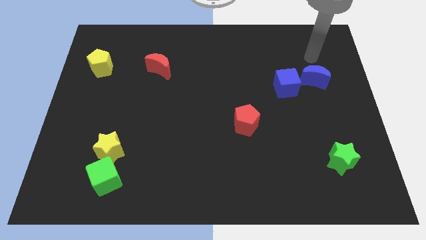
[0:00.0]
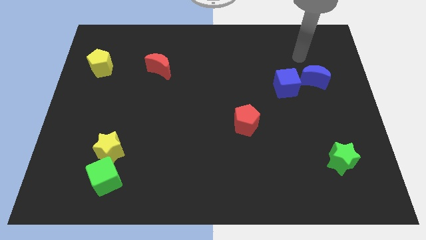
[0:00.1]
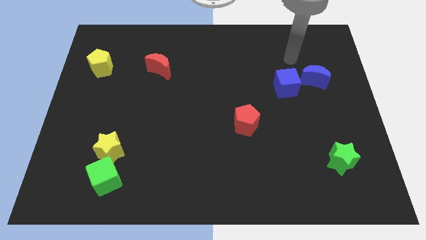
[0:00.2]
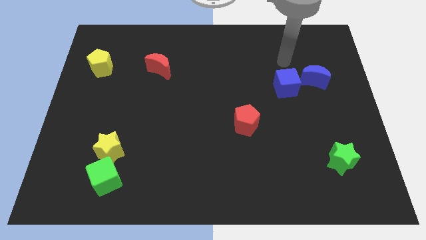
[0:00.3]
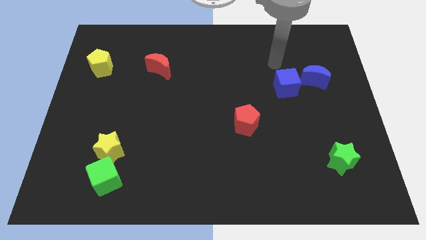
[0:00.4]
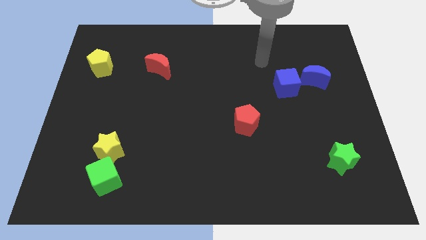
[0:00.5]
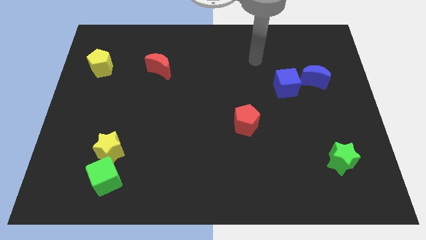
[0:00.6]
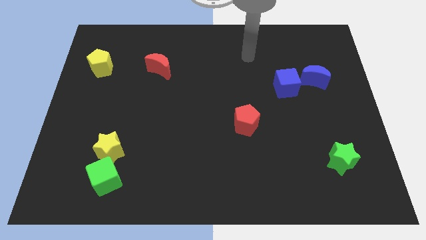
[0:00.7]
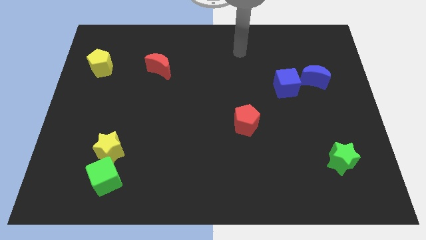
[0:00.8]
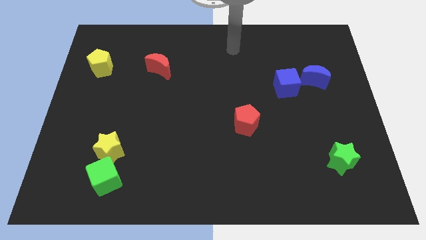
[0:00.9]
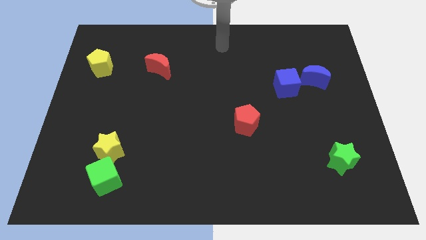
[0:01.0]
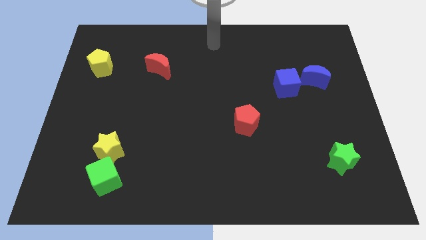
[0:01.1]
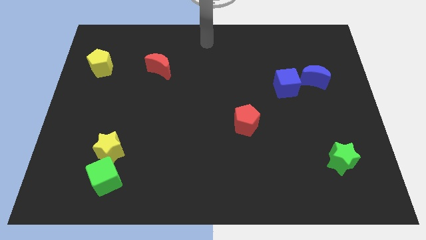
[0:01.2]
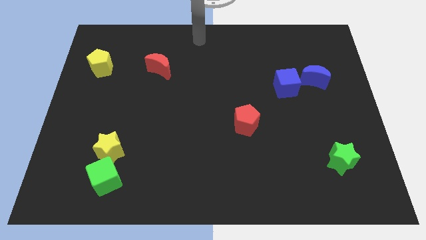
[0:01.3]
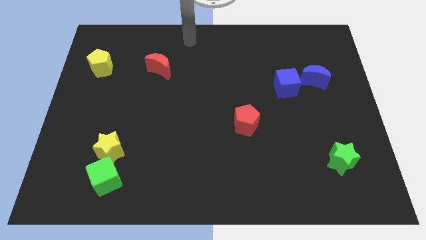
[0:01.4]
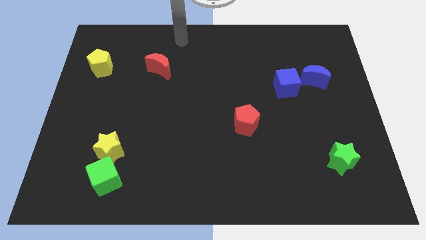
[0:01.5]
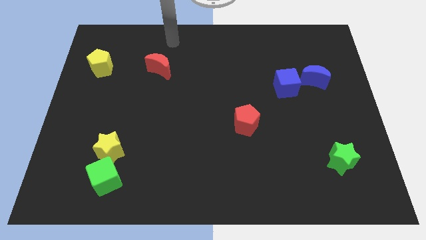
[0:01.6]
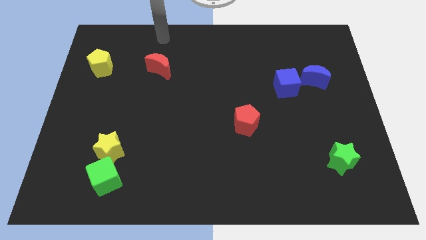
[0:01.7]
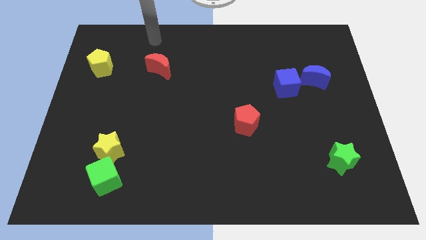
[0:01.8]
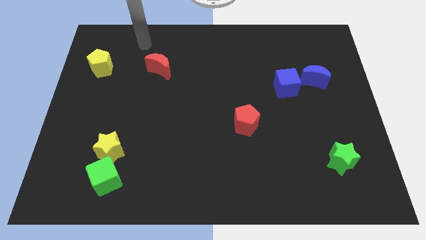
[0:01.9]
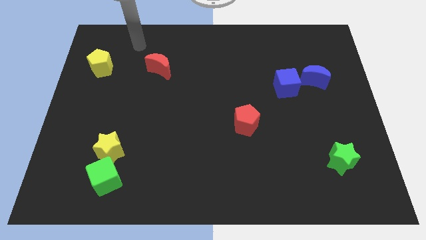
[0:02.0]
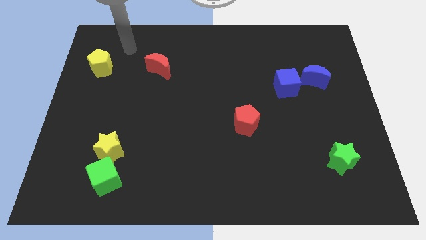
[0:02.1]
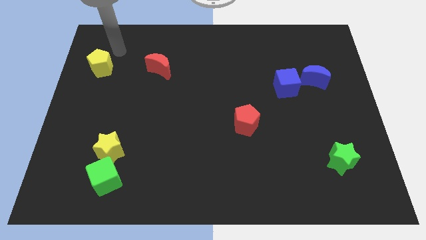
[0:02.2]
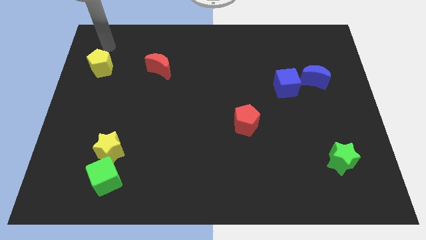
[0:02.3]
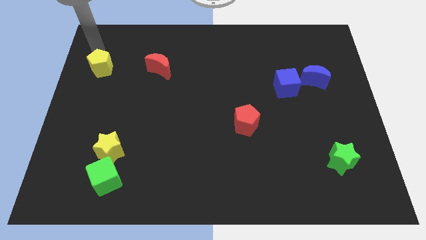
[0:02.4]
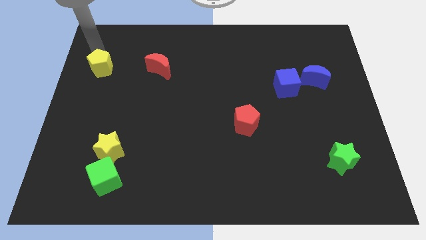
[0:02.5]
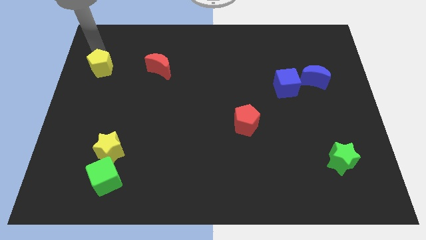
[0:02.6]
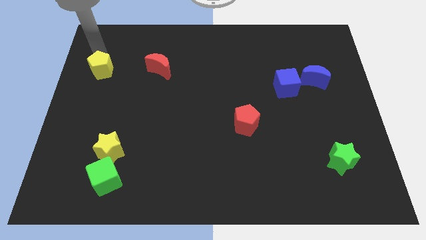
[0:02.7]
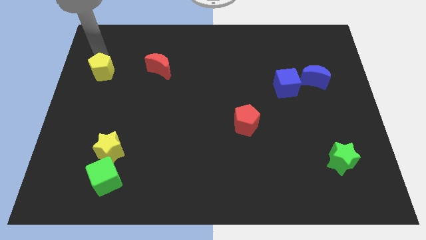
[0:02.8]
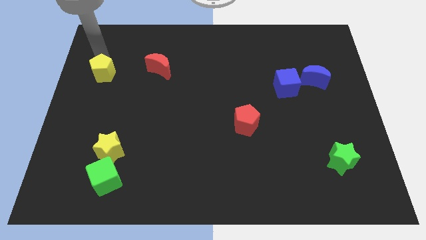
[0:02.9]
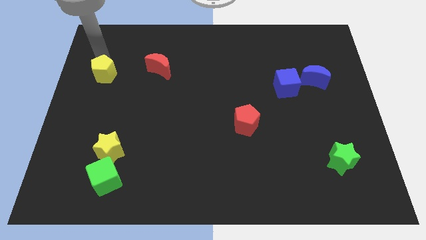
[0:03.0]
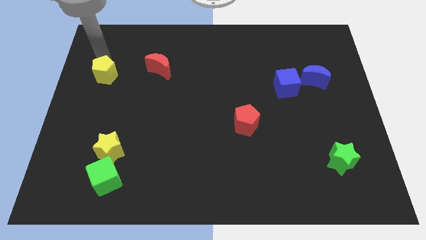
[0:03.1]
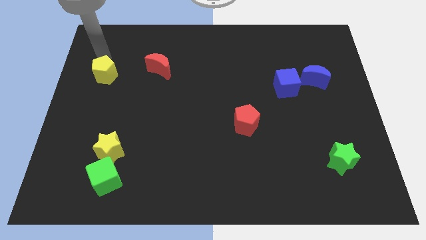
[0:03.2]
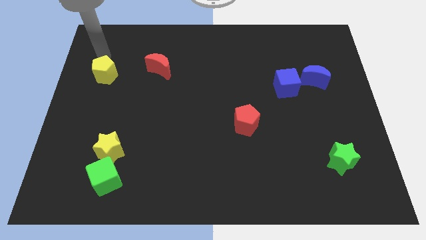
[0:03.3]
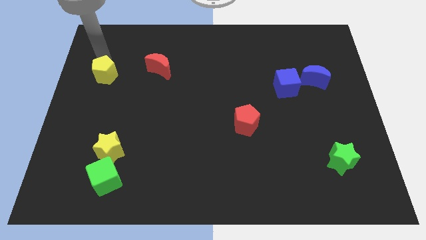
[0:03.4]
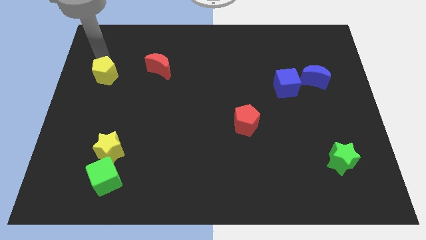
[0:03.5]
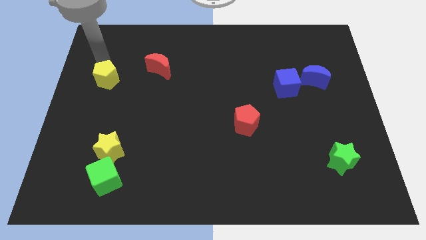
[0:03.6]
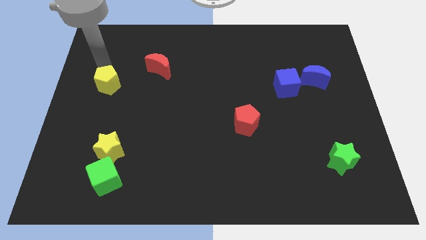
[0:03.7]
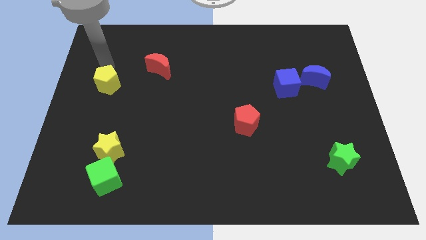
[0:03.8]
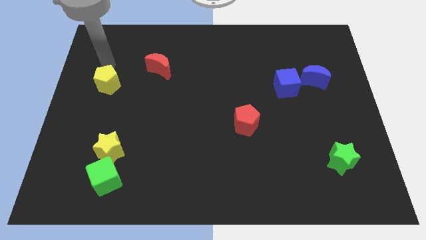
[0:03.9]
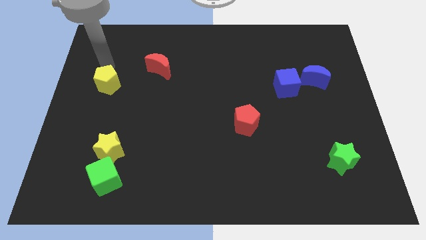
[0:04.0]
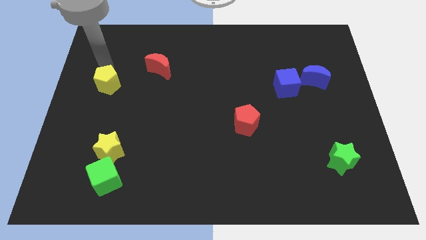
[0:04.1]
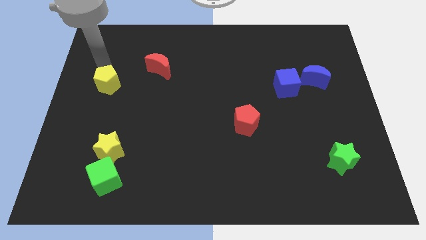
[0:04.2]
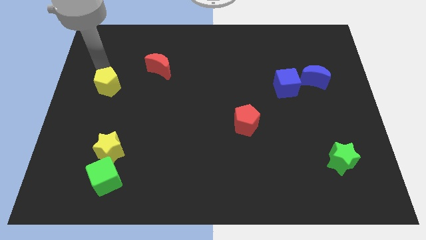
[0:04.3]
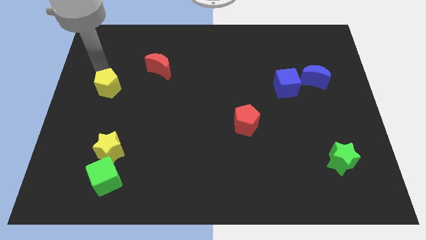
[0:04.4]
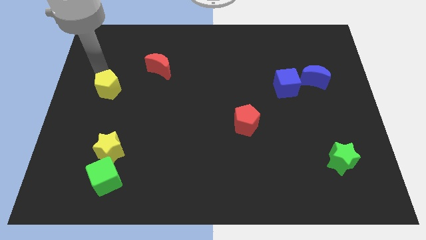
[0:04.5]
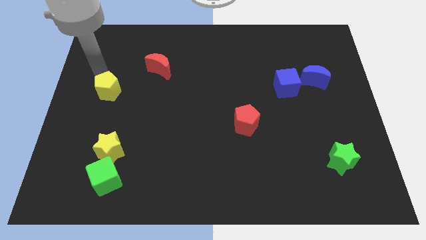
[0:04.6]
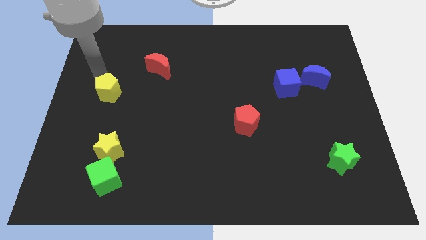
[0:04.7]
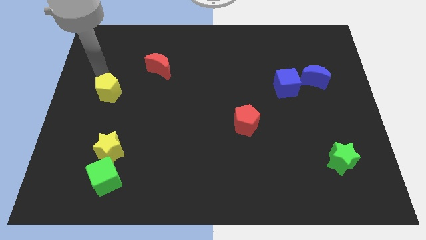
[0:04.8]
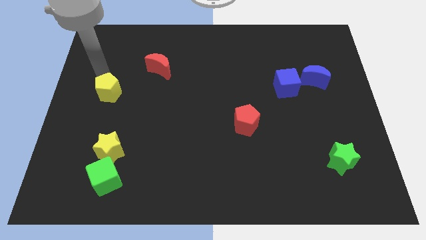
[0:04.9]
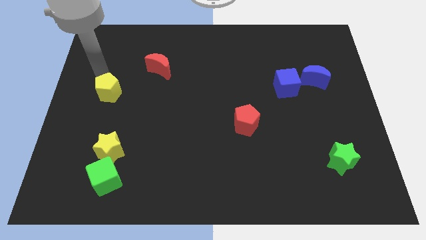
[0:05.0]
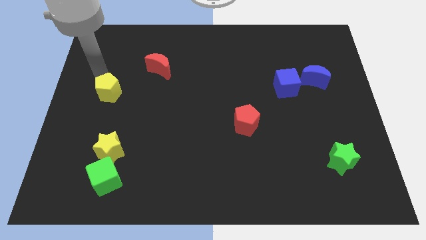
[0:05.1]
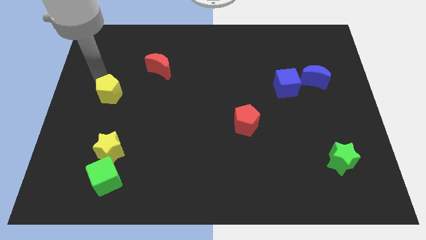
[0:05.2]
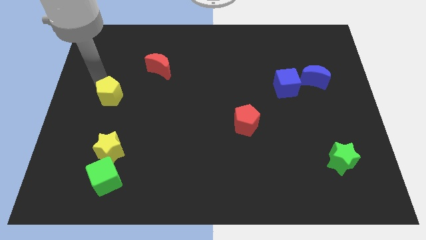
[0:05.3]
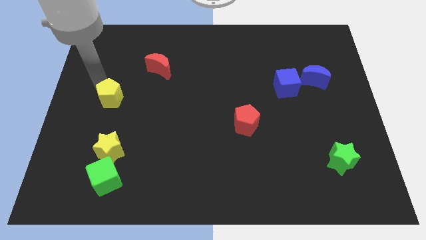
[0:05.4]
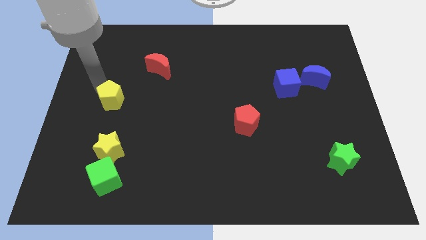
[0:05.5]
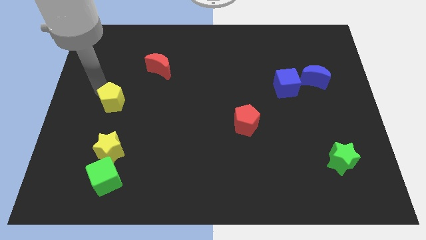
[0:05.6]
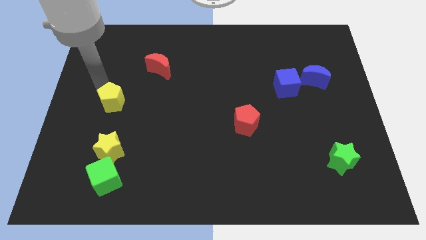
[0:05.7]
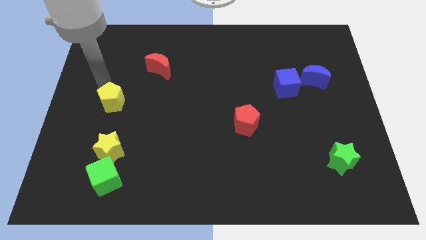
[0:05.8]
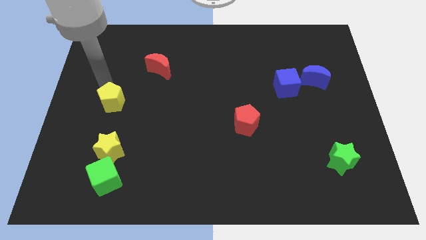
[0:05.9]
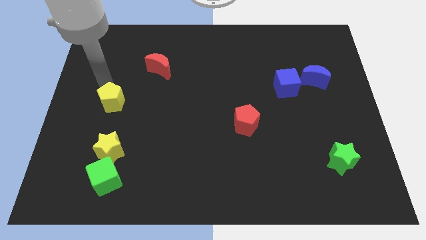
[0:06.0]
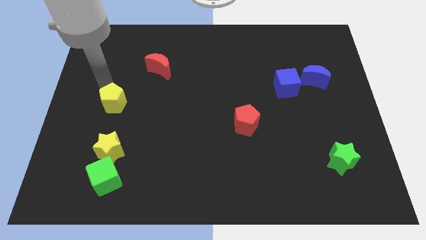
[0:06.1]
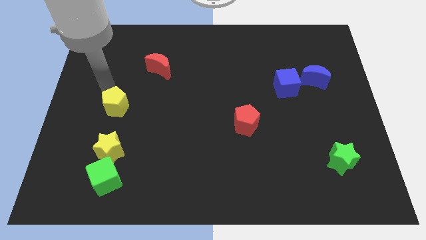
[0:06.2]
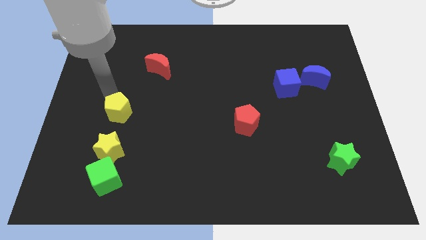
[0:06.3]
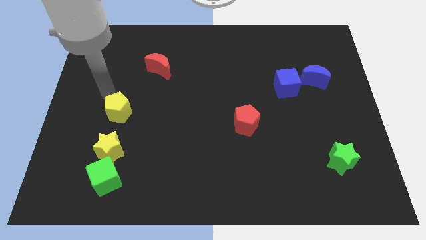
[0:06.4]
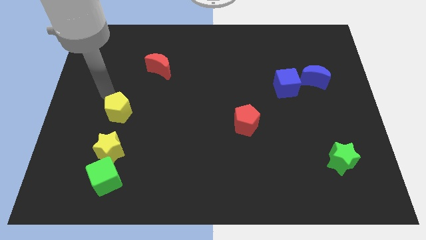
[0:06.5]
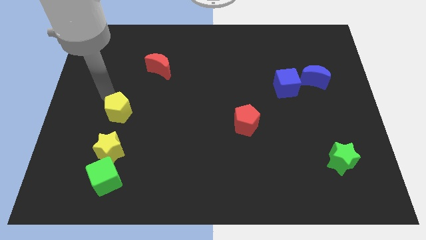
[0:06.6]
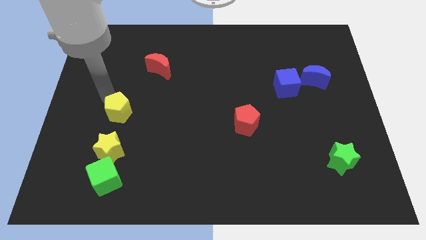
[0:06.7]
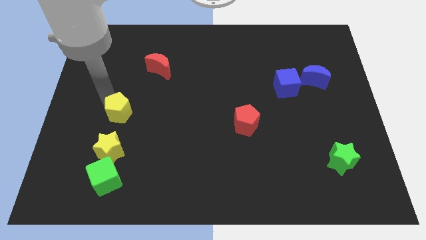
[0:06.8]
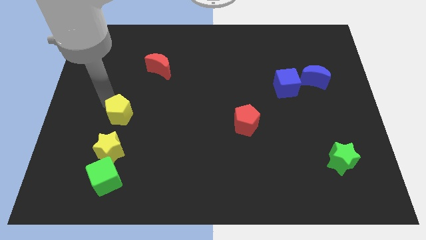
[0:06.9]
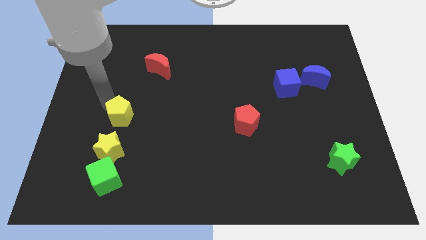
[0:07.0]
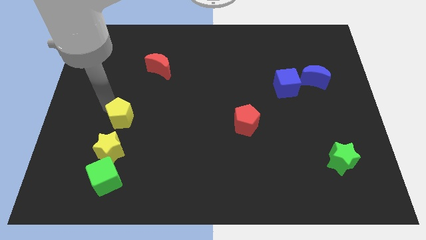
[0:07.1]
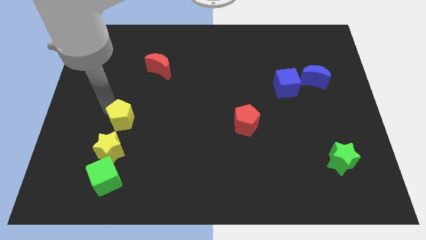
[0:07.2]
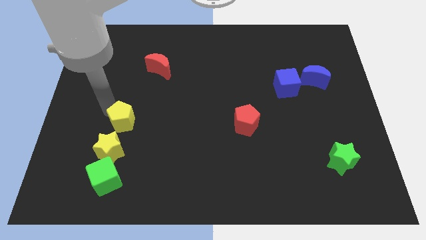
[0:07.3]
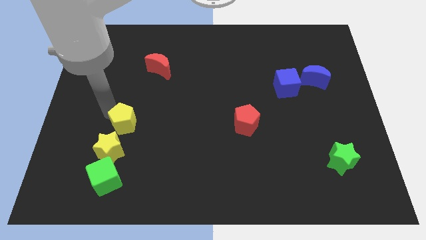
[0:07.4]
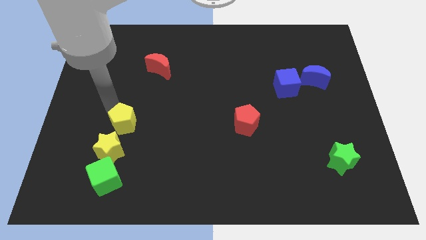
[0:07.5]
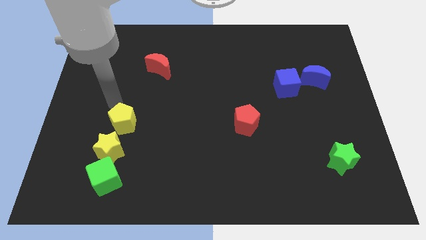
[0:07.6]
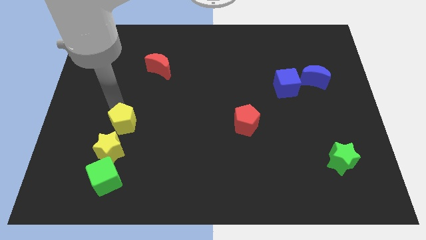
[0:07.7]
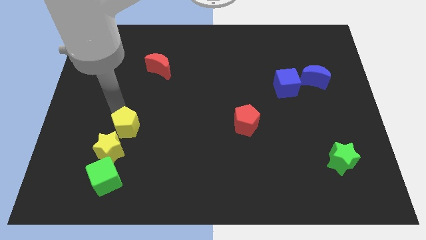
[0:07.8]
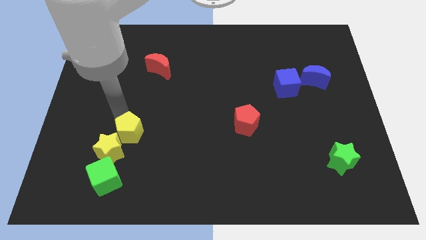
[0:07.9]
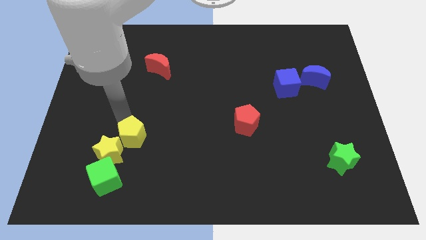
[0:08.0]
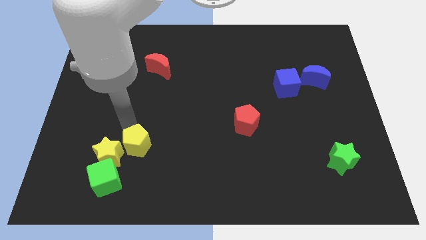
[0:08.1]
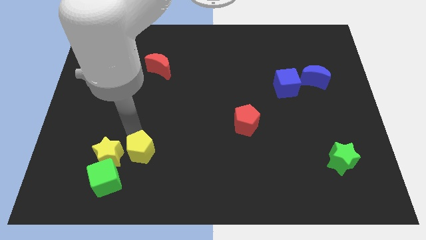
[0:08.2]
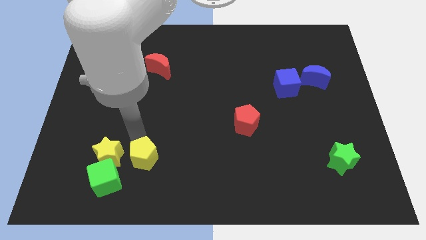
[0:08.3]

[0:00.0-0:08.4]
push the yellow pentagon to the bottom right side of the yellow star
